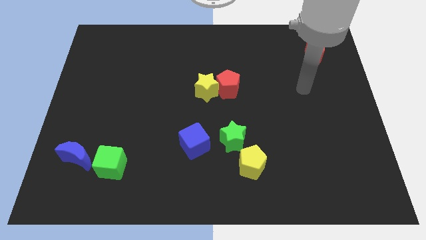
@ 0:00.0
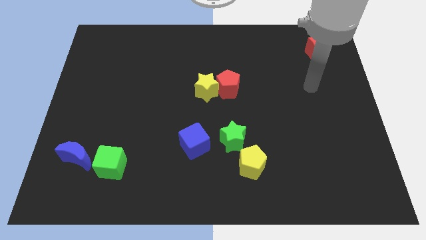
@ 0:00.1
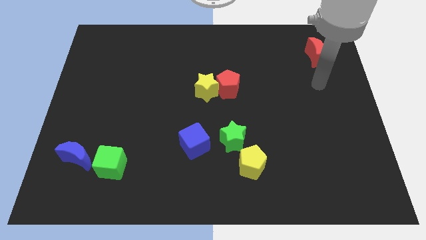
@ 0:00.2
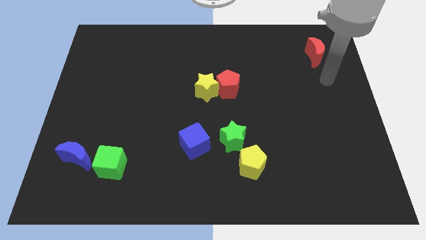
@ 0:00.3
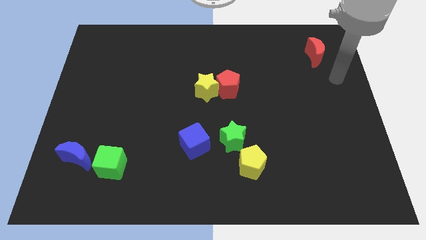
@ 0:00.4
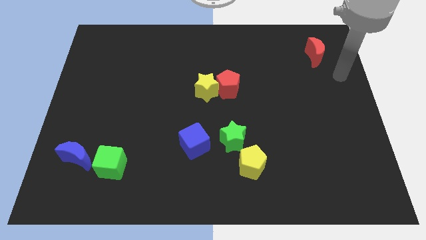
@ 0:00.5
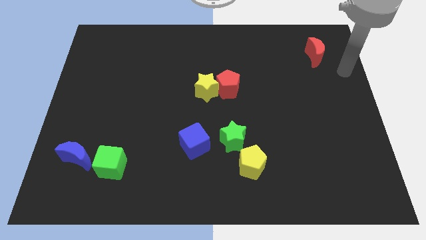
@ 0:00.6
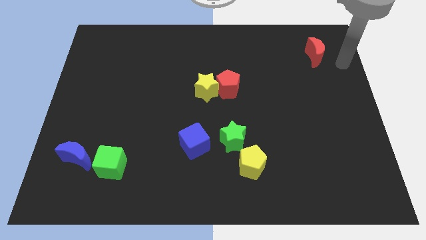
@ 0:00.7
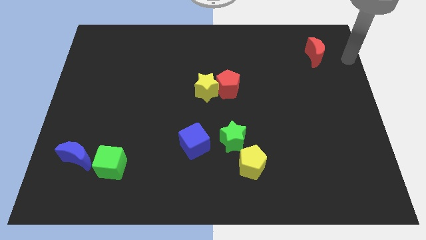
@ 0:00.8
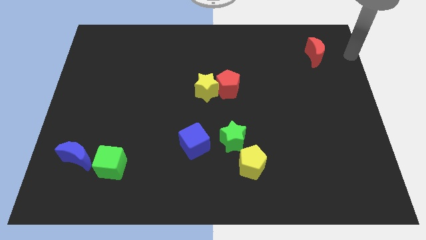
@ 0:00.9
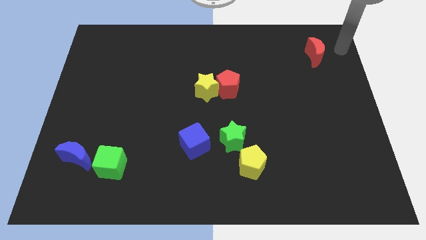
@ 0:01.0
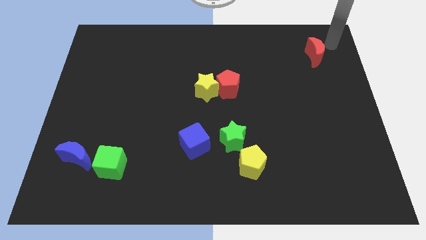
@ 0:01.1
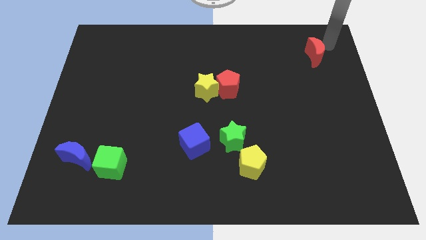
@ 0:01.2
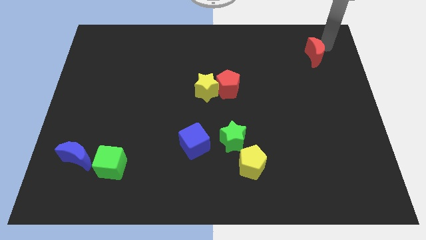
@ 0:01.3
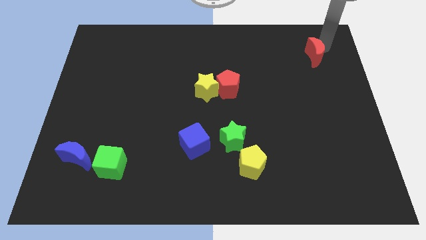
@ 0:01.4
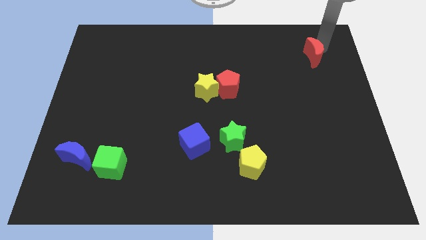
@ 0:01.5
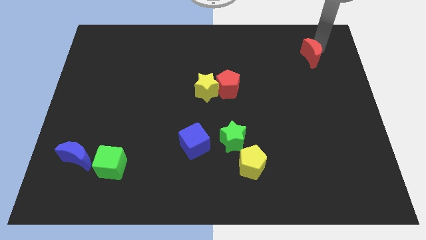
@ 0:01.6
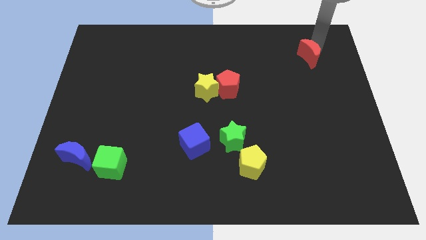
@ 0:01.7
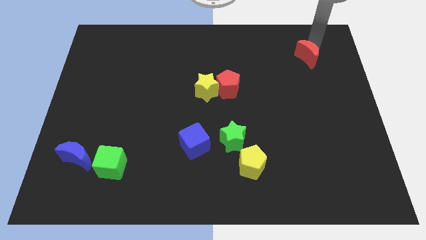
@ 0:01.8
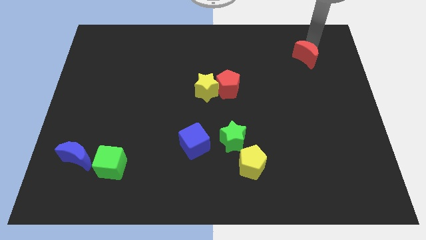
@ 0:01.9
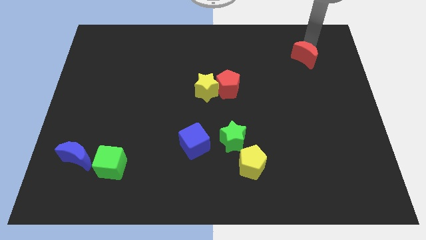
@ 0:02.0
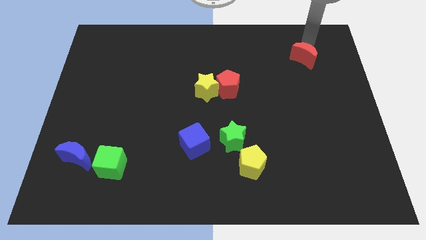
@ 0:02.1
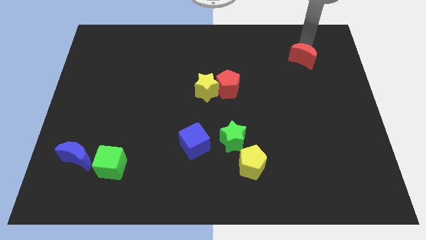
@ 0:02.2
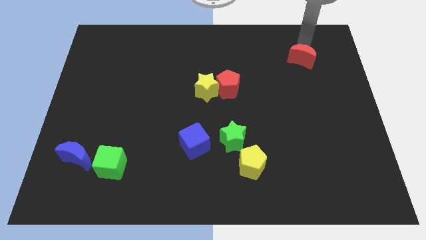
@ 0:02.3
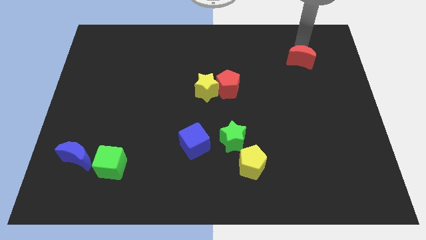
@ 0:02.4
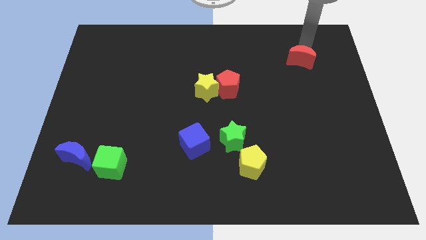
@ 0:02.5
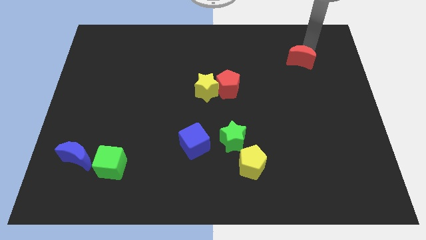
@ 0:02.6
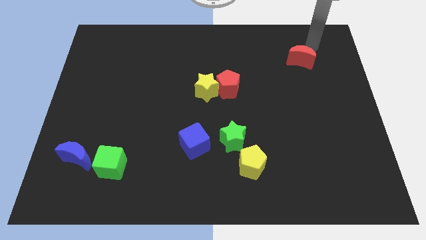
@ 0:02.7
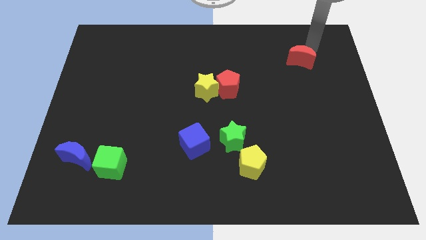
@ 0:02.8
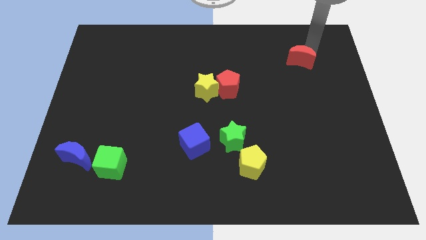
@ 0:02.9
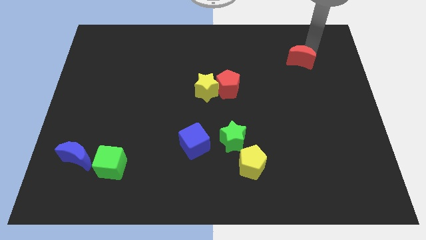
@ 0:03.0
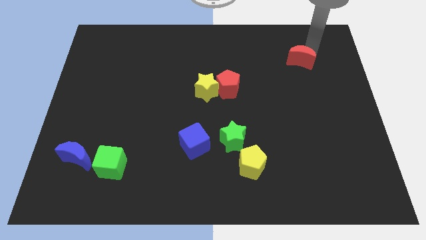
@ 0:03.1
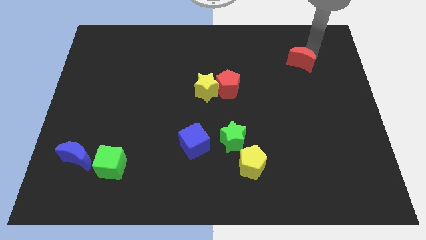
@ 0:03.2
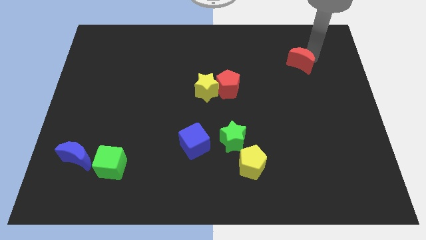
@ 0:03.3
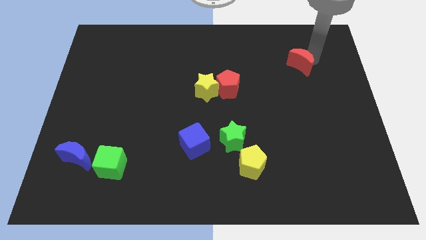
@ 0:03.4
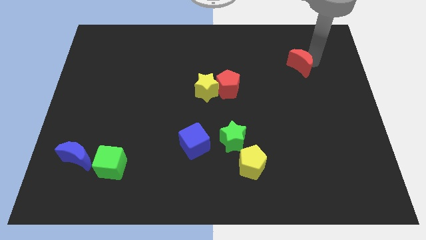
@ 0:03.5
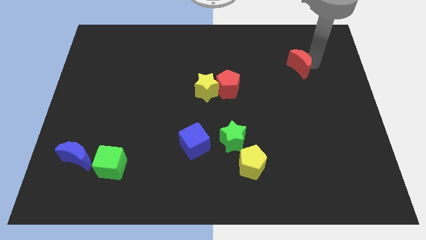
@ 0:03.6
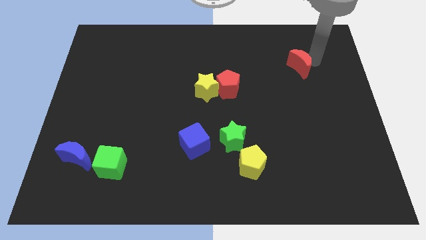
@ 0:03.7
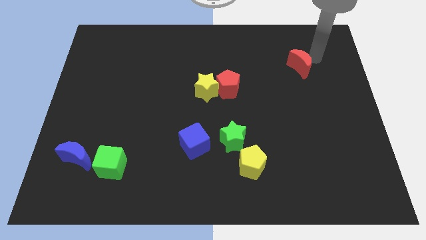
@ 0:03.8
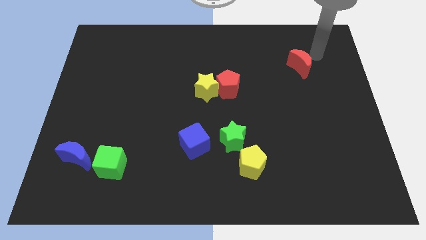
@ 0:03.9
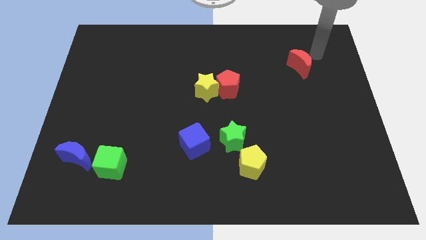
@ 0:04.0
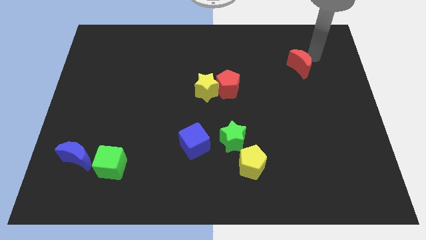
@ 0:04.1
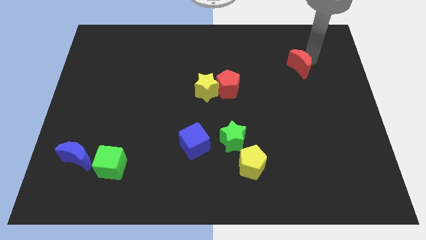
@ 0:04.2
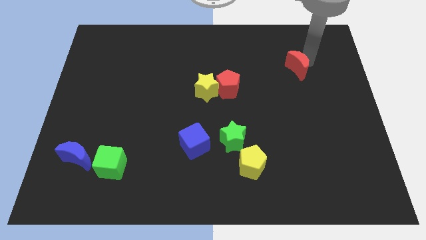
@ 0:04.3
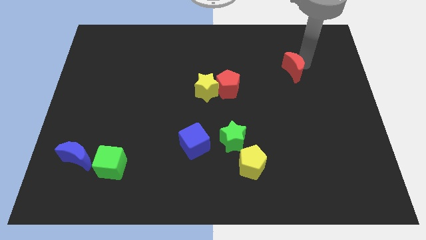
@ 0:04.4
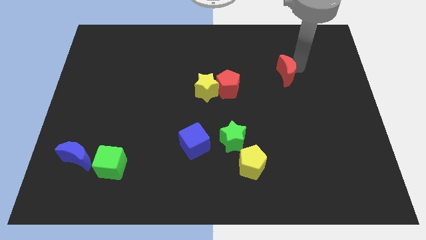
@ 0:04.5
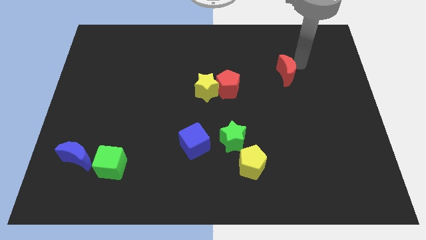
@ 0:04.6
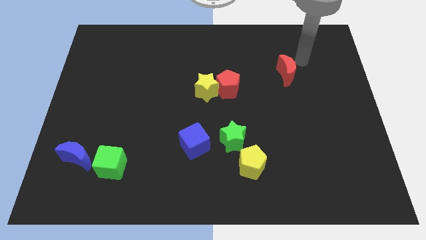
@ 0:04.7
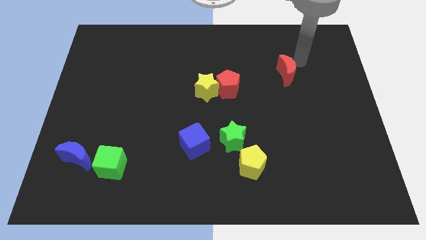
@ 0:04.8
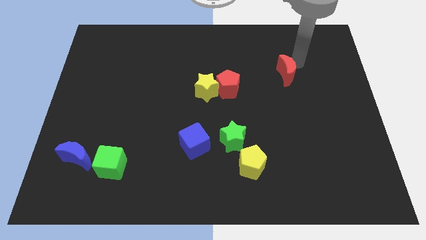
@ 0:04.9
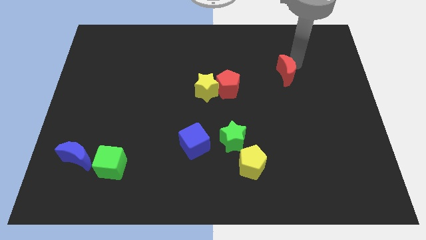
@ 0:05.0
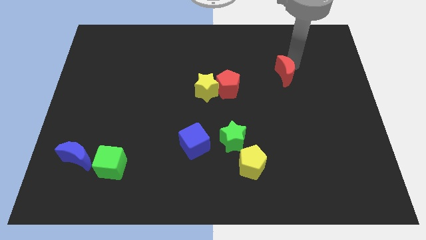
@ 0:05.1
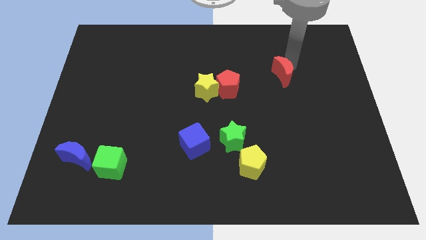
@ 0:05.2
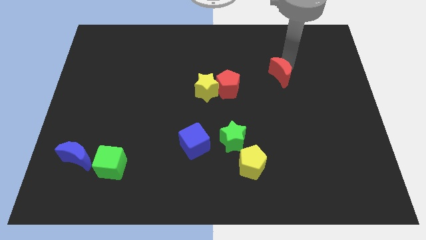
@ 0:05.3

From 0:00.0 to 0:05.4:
slide the red moon to the right side of the red pentagon

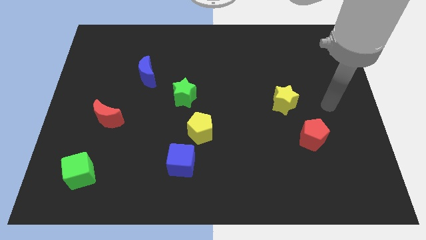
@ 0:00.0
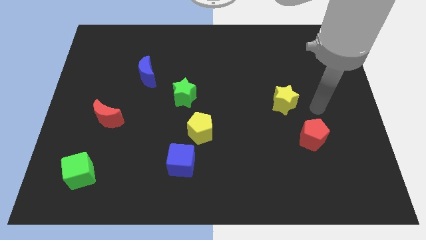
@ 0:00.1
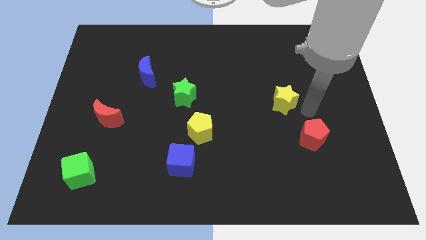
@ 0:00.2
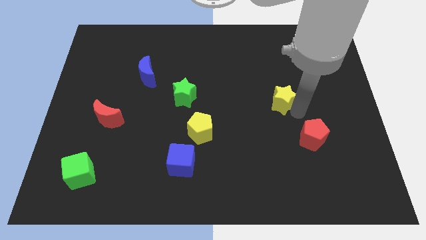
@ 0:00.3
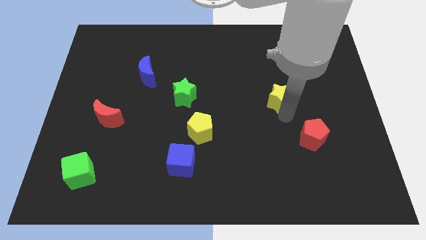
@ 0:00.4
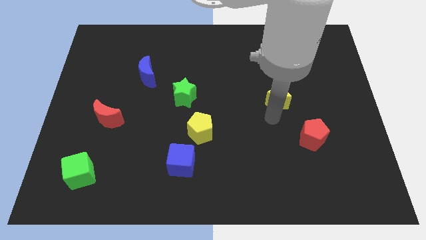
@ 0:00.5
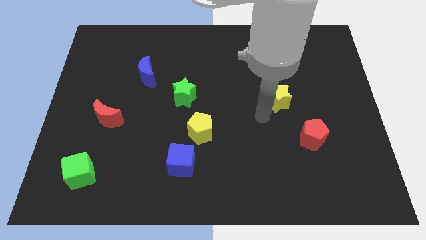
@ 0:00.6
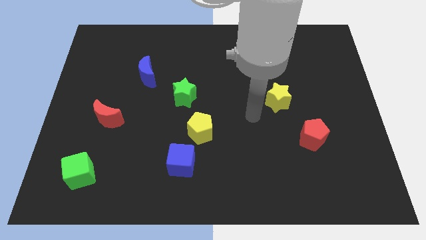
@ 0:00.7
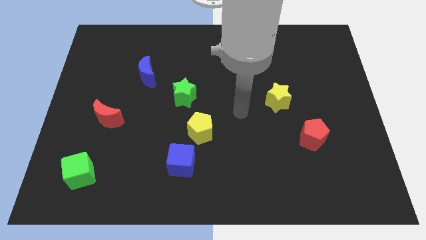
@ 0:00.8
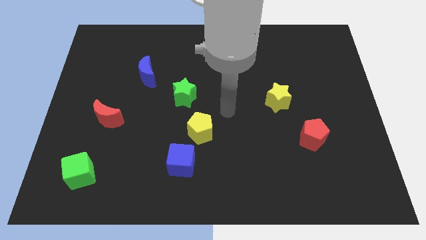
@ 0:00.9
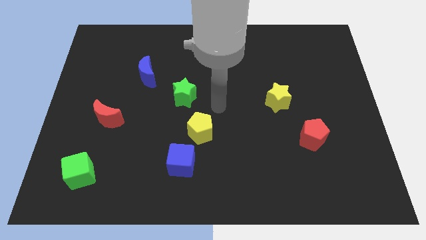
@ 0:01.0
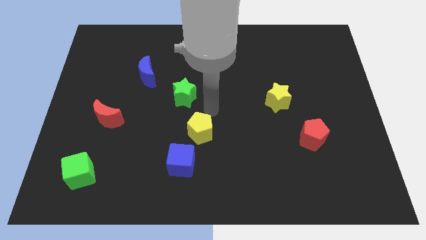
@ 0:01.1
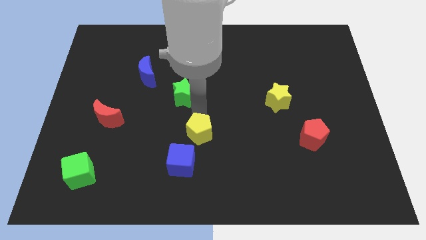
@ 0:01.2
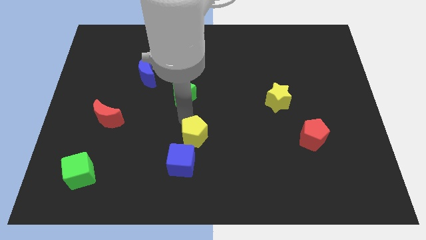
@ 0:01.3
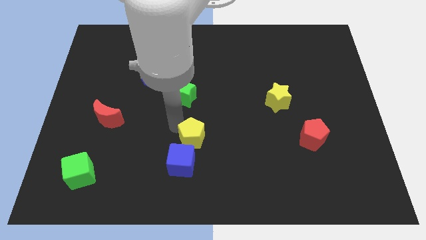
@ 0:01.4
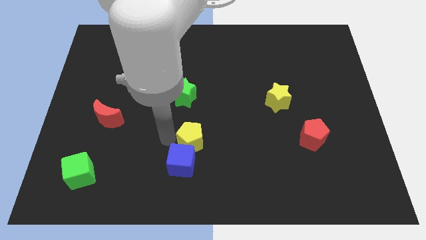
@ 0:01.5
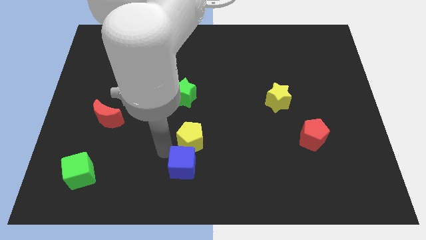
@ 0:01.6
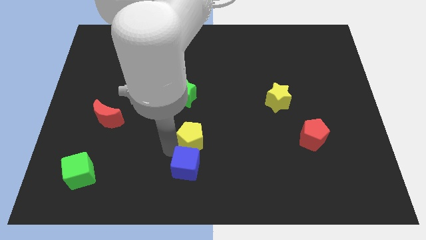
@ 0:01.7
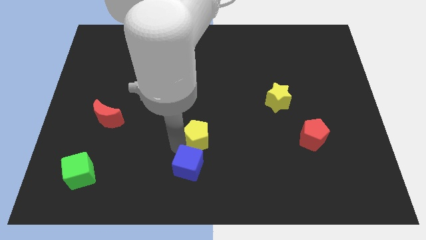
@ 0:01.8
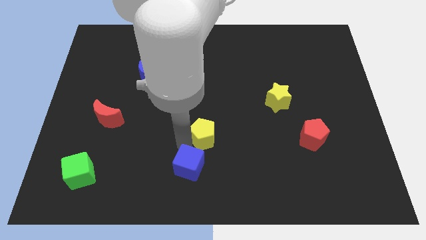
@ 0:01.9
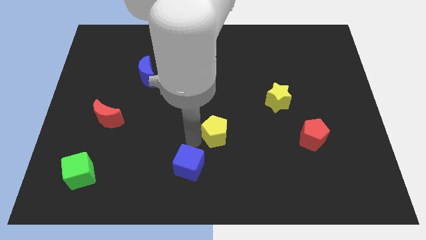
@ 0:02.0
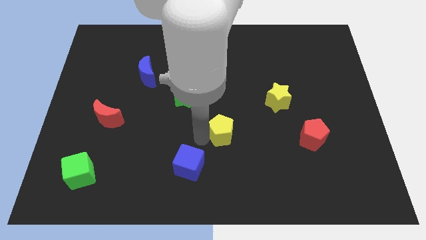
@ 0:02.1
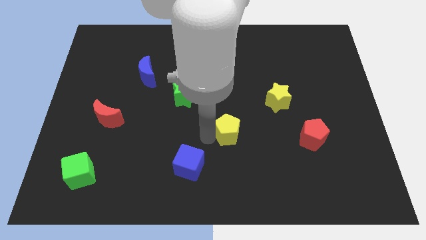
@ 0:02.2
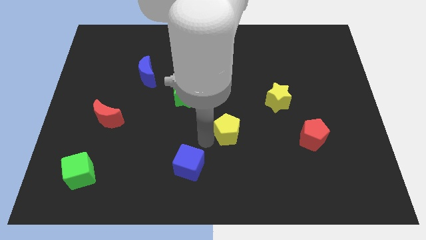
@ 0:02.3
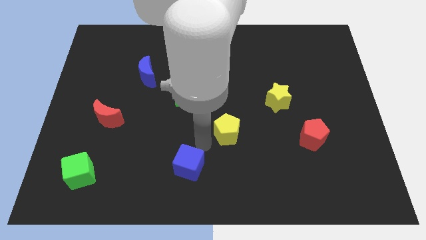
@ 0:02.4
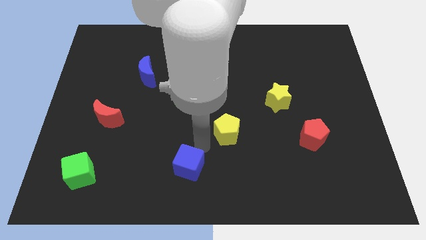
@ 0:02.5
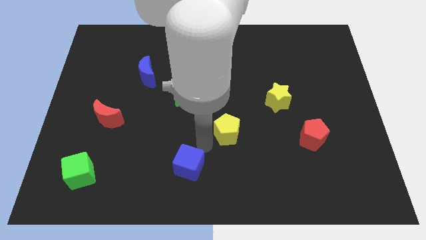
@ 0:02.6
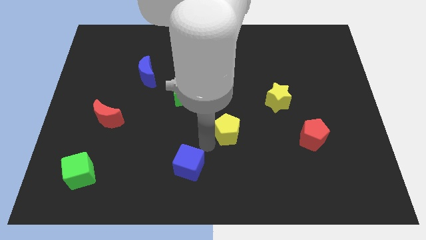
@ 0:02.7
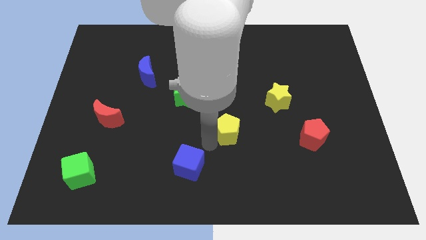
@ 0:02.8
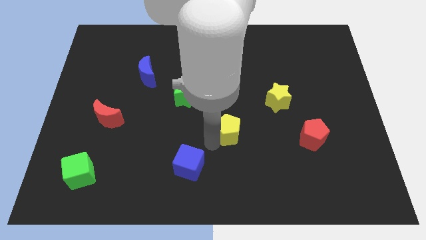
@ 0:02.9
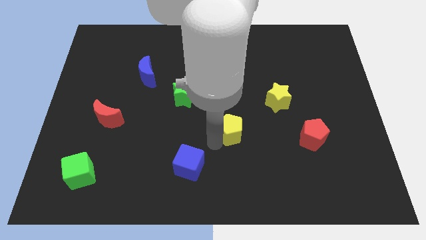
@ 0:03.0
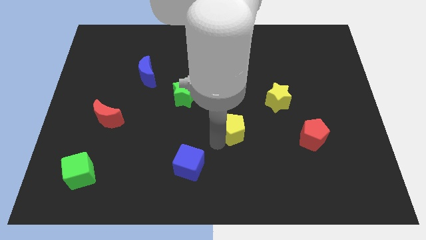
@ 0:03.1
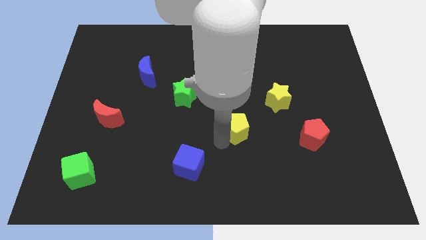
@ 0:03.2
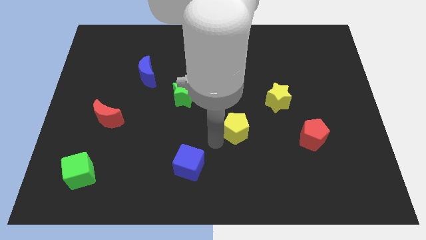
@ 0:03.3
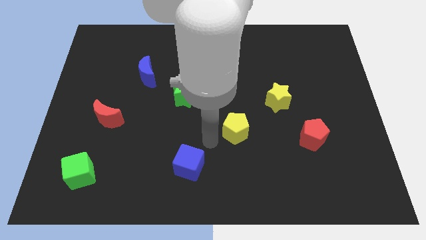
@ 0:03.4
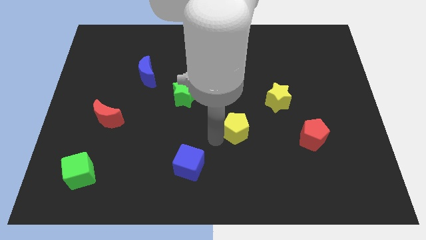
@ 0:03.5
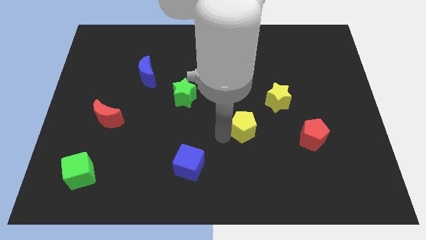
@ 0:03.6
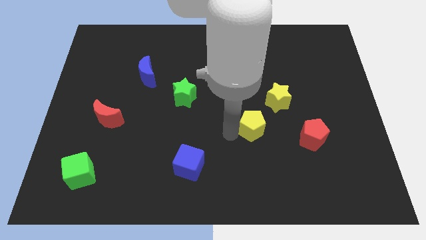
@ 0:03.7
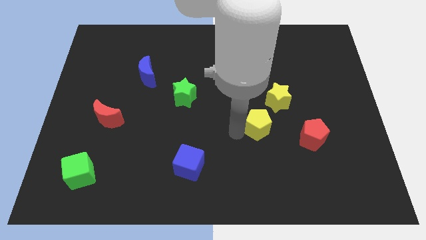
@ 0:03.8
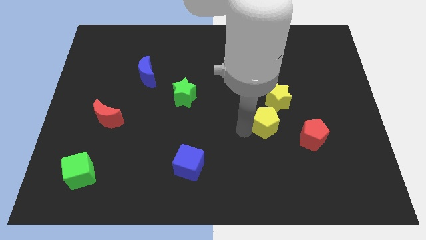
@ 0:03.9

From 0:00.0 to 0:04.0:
put the yellow pentagon diagonally up and to the left of the red pentagon
